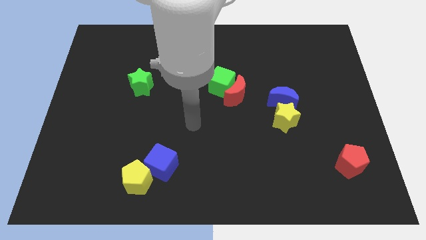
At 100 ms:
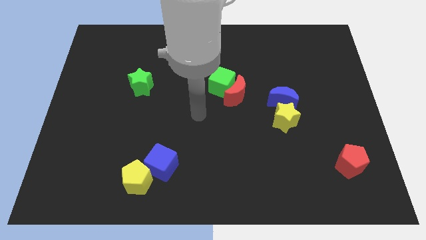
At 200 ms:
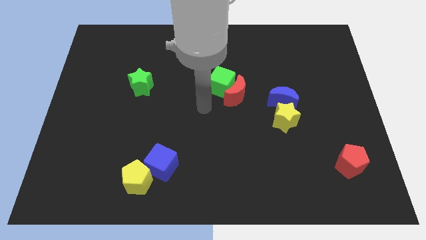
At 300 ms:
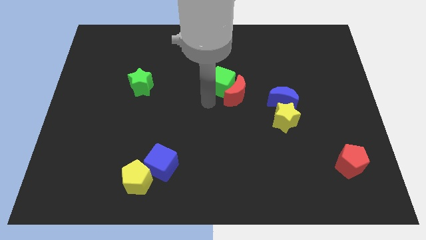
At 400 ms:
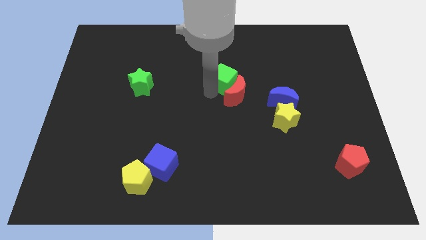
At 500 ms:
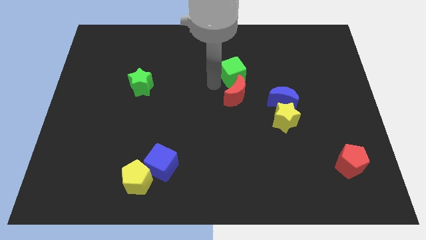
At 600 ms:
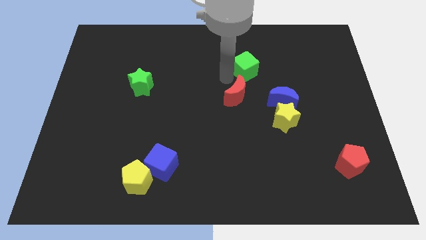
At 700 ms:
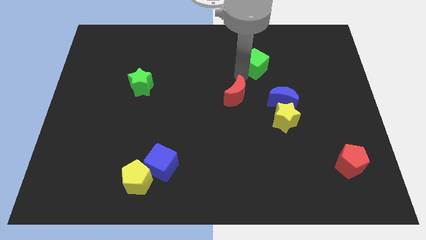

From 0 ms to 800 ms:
move the red moon away from the green cube

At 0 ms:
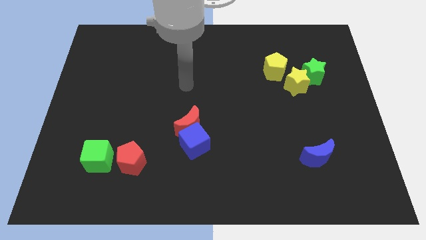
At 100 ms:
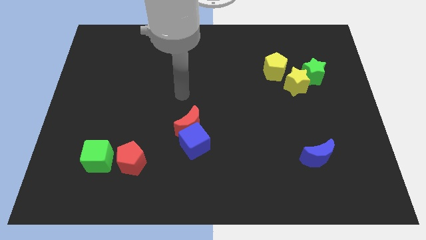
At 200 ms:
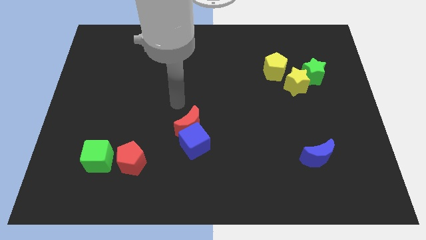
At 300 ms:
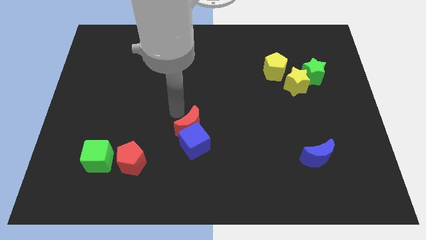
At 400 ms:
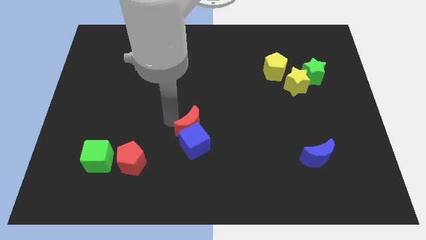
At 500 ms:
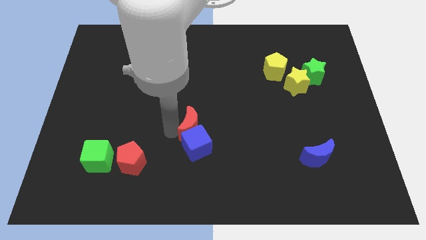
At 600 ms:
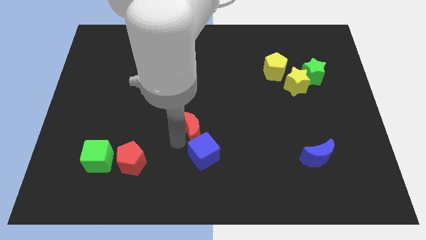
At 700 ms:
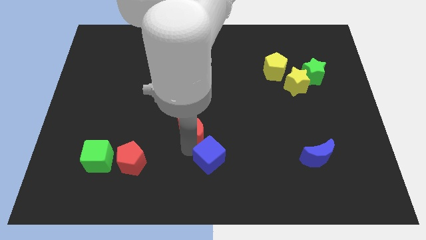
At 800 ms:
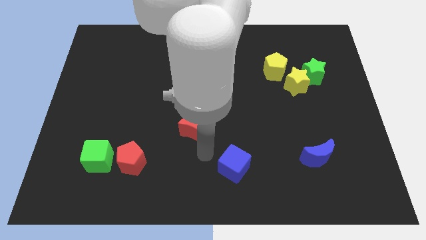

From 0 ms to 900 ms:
pull the red moon apart from the blue cube

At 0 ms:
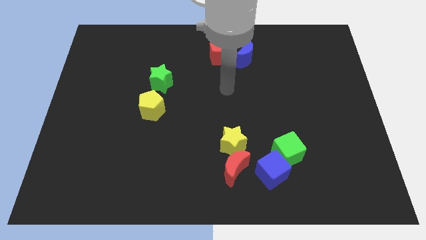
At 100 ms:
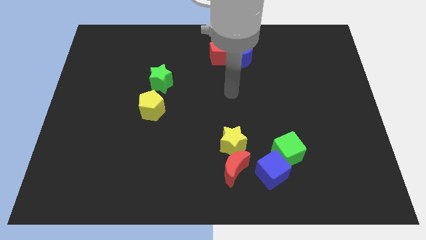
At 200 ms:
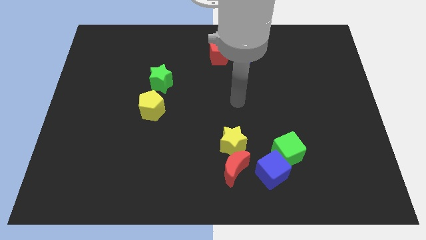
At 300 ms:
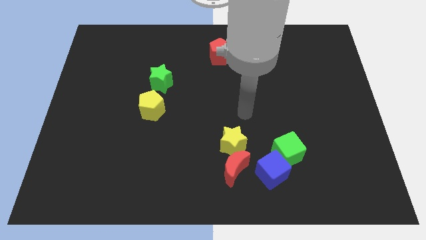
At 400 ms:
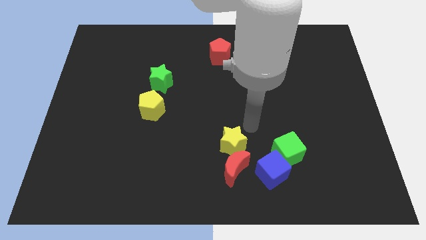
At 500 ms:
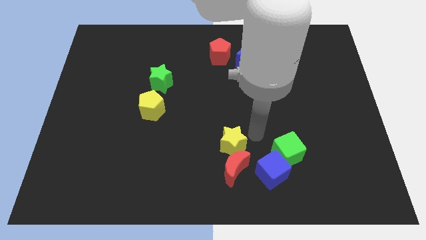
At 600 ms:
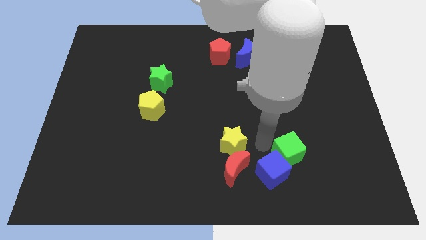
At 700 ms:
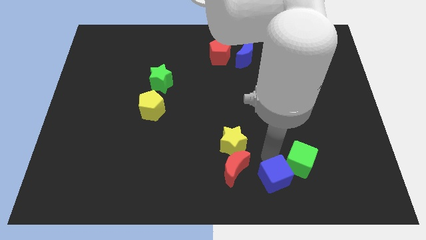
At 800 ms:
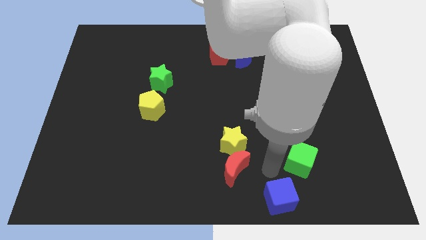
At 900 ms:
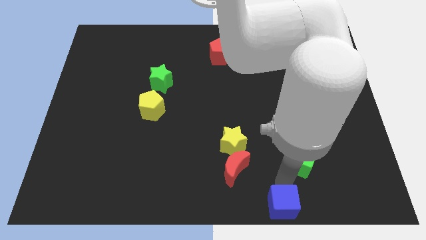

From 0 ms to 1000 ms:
pull the green cube apart from the blue cube

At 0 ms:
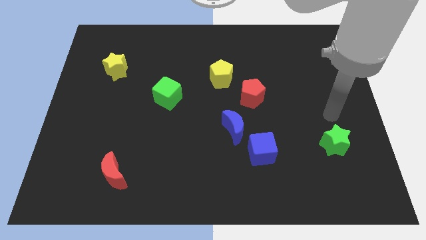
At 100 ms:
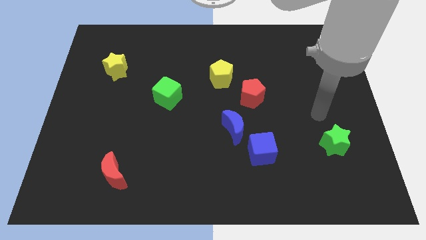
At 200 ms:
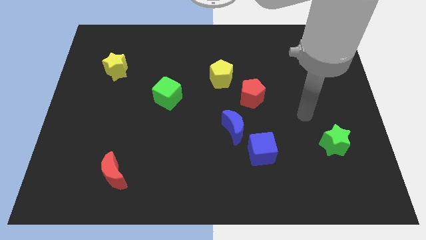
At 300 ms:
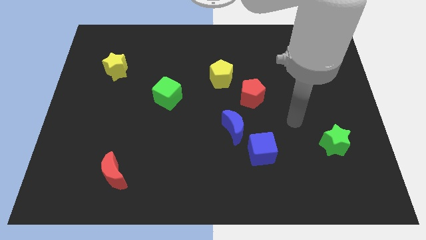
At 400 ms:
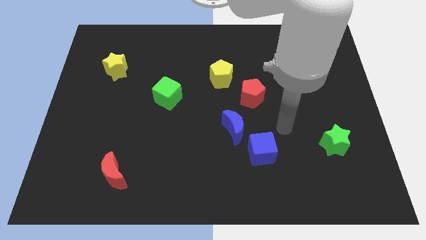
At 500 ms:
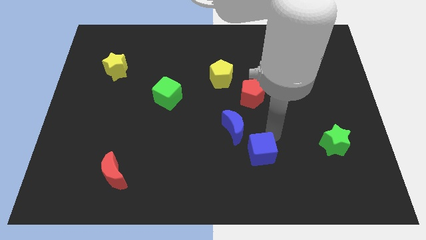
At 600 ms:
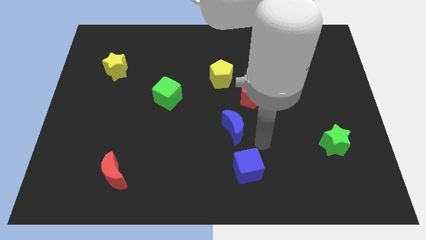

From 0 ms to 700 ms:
move the blue moon away from the blue cube

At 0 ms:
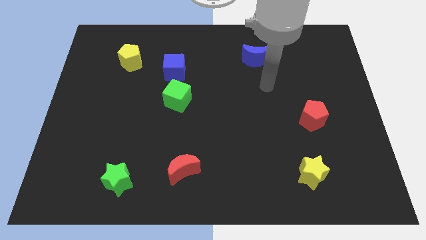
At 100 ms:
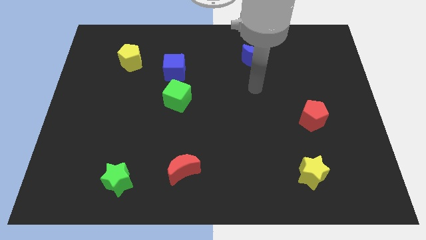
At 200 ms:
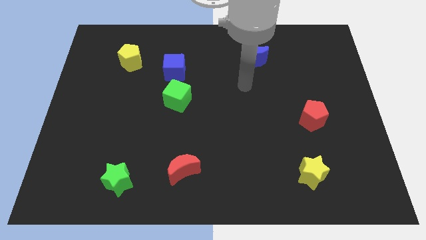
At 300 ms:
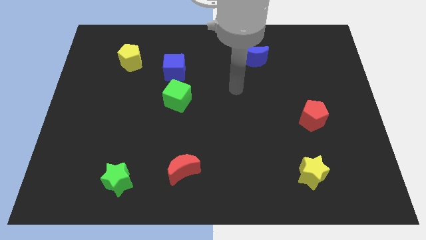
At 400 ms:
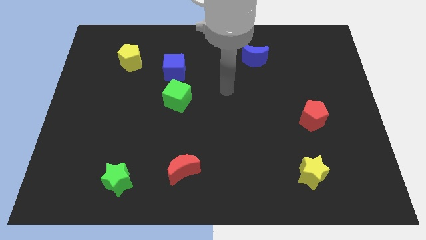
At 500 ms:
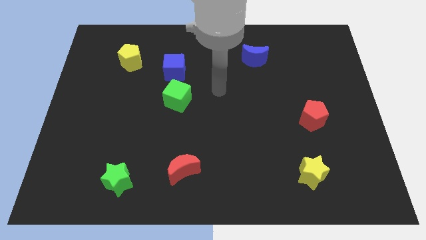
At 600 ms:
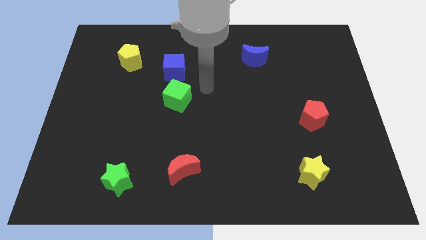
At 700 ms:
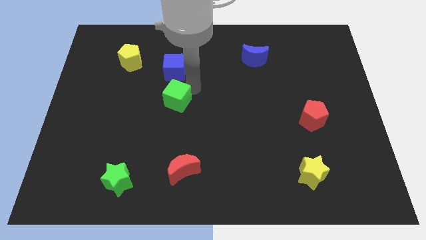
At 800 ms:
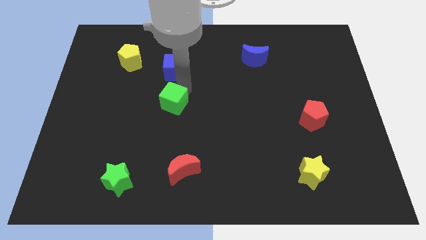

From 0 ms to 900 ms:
pull the blue cube apart from the green cube

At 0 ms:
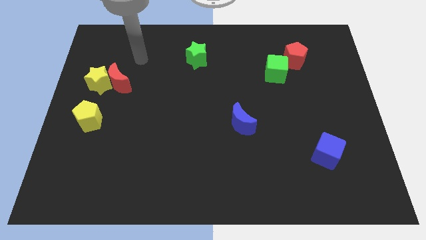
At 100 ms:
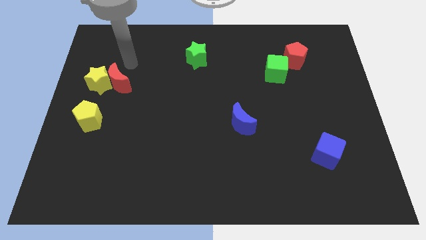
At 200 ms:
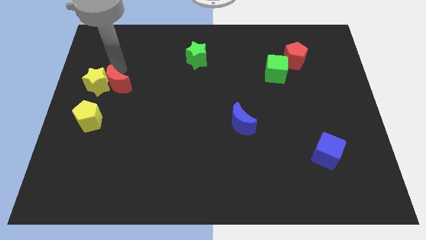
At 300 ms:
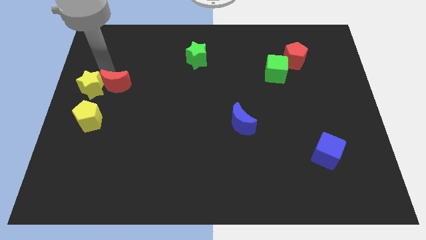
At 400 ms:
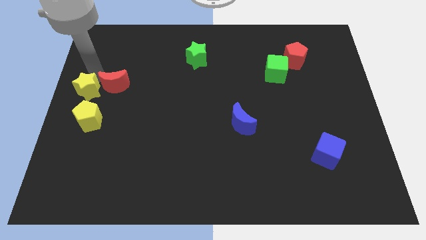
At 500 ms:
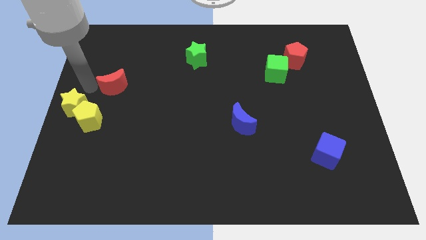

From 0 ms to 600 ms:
pull the red moon apart from the yellow star

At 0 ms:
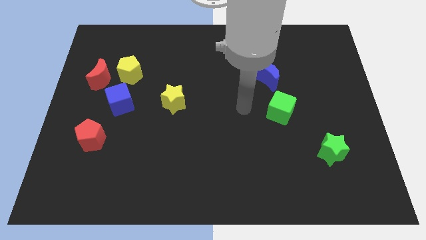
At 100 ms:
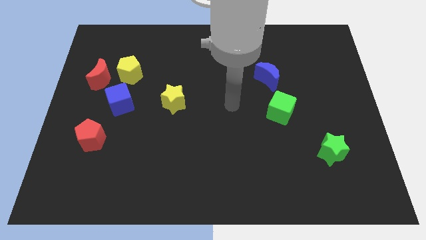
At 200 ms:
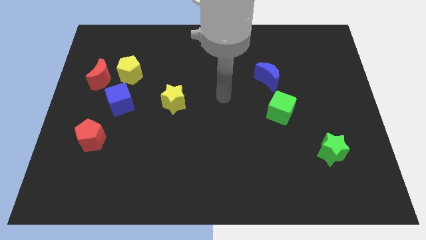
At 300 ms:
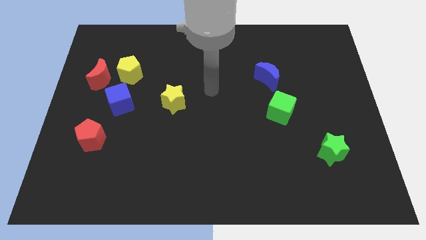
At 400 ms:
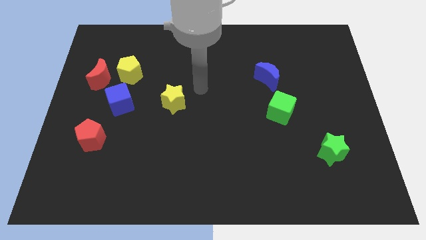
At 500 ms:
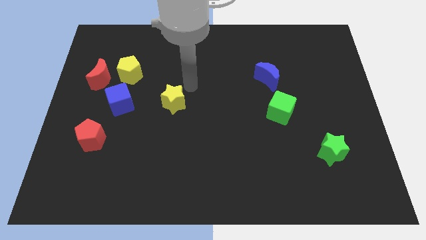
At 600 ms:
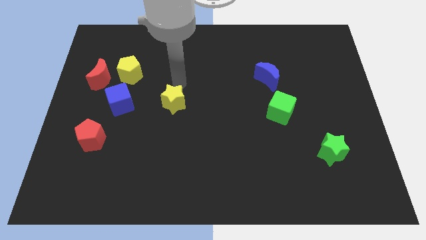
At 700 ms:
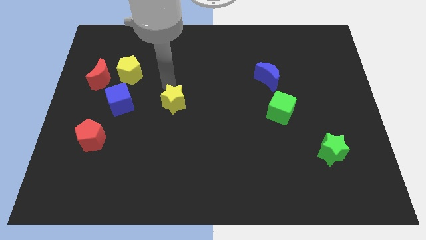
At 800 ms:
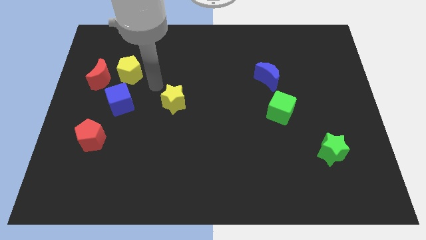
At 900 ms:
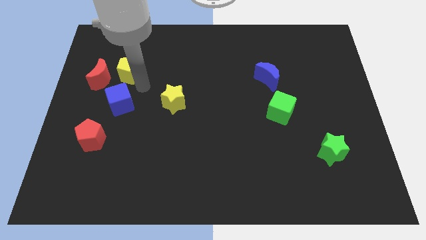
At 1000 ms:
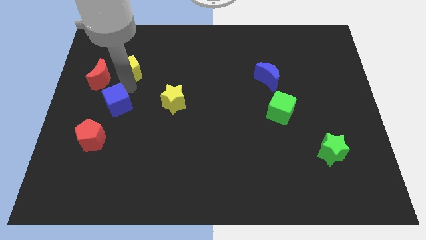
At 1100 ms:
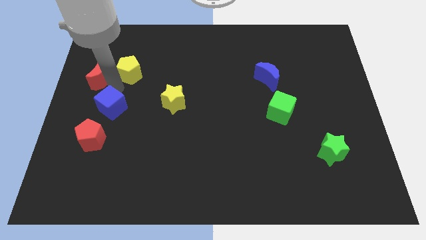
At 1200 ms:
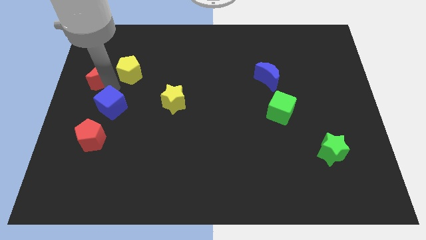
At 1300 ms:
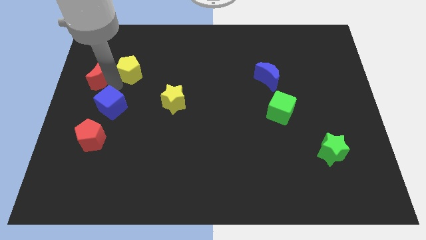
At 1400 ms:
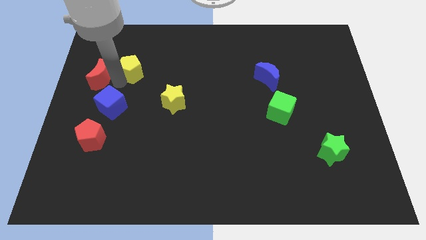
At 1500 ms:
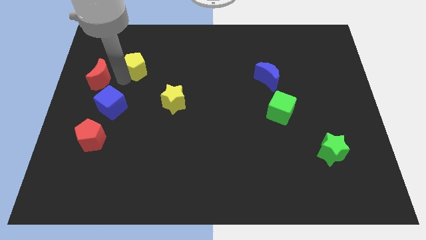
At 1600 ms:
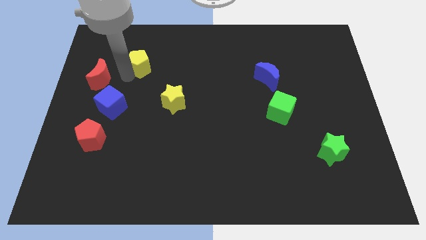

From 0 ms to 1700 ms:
move the yellow pentagon away from the red moon and blue cube

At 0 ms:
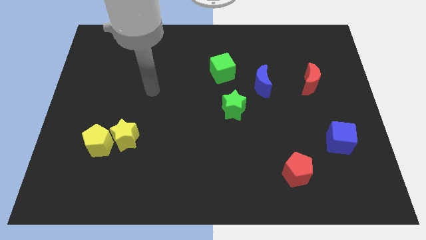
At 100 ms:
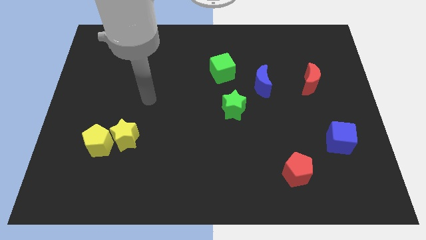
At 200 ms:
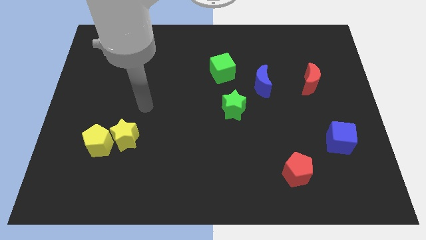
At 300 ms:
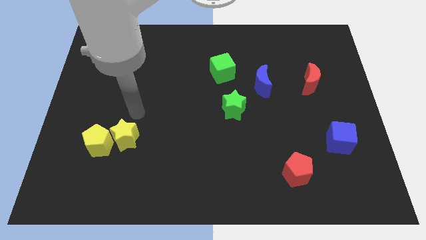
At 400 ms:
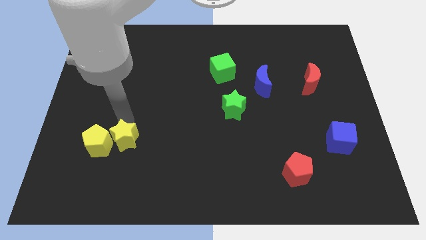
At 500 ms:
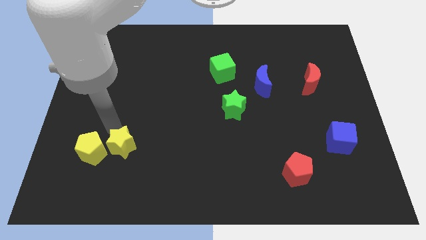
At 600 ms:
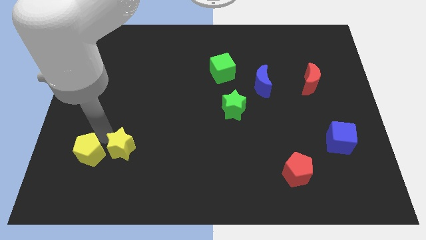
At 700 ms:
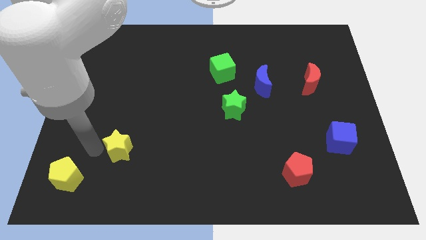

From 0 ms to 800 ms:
separate the yellow star from the yellow pentagon

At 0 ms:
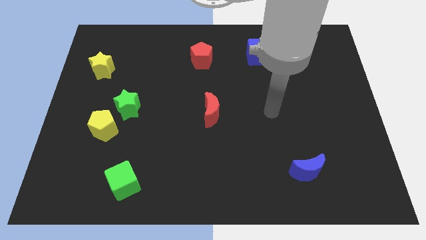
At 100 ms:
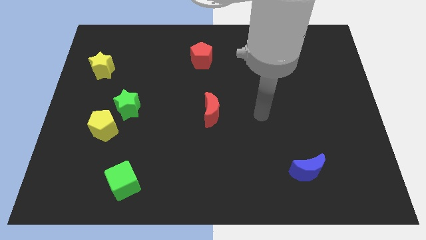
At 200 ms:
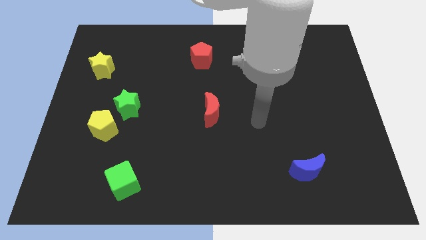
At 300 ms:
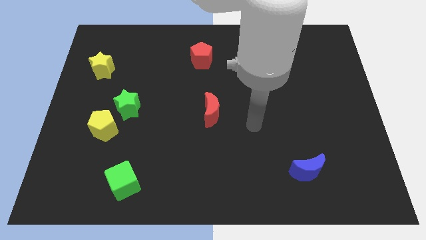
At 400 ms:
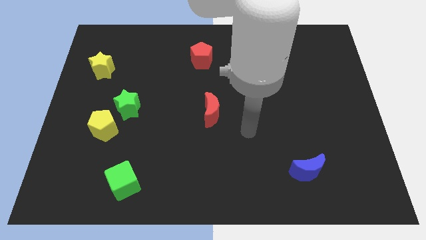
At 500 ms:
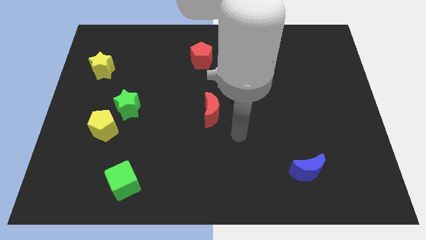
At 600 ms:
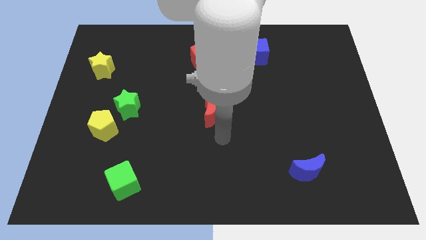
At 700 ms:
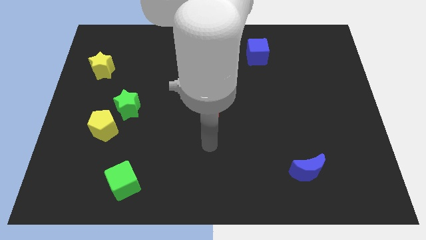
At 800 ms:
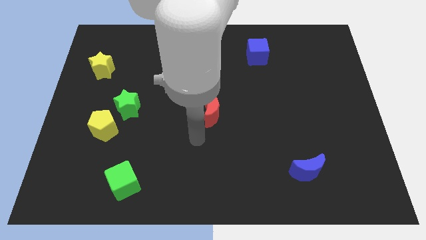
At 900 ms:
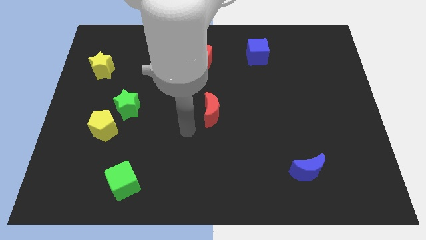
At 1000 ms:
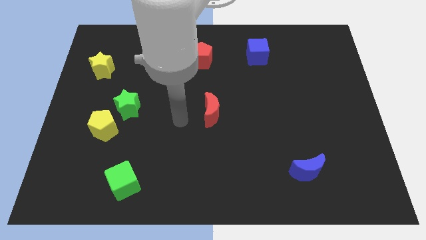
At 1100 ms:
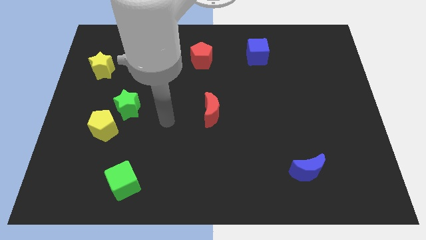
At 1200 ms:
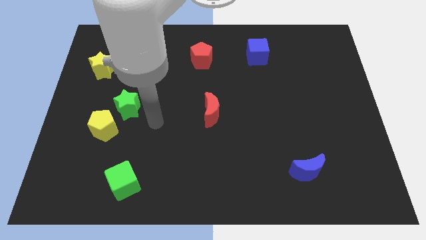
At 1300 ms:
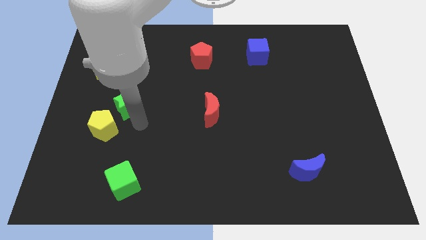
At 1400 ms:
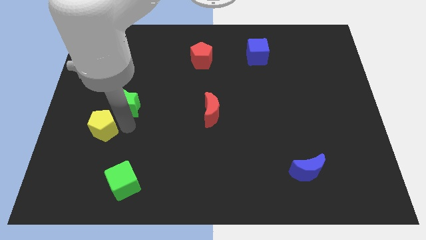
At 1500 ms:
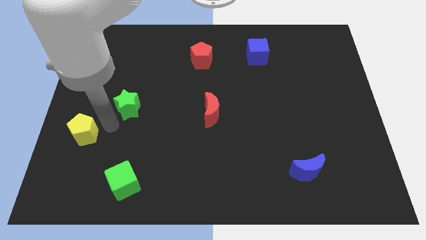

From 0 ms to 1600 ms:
move the green star away from the yellow pentagon

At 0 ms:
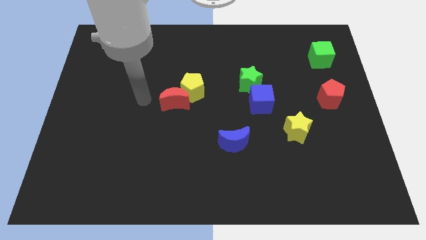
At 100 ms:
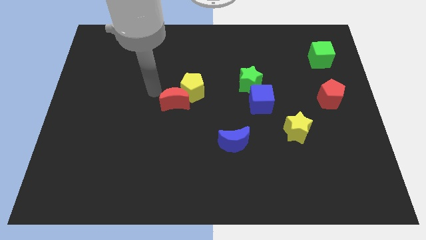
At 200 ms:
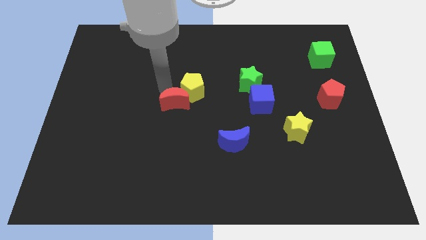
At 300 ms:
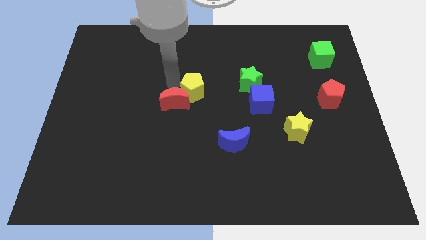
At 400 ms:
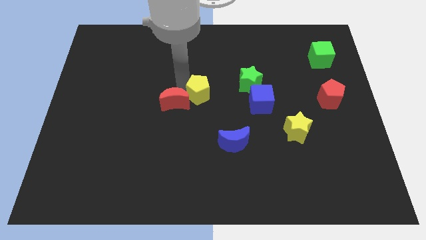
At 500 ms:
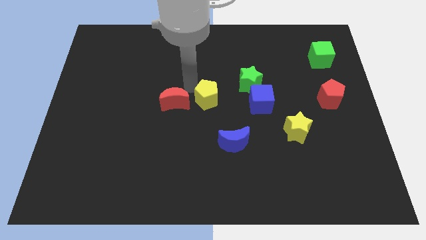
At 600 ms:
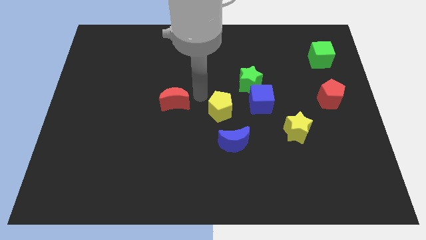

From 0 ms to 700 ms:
separate the red moon from the yellow pentagon
